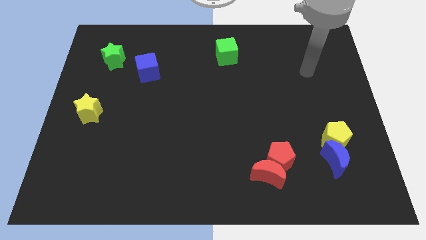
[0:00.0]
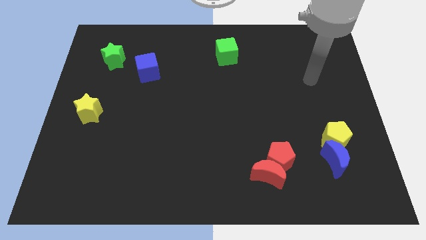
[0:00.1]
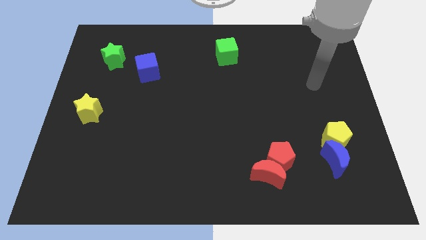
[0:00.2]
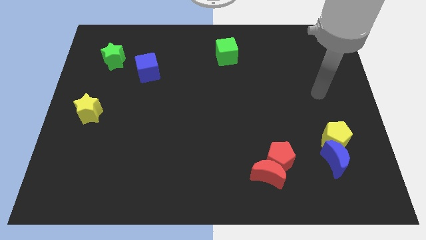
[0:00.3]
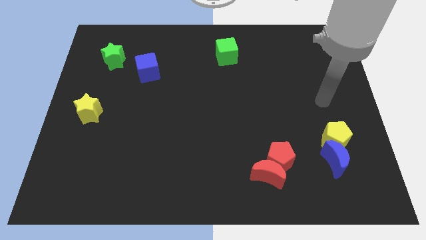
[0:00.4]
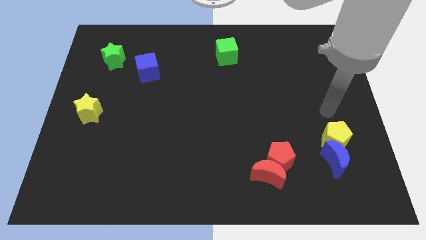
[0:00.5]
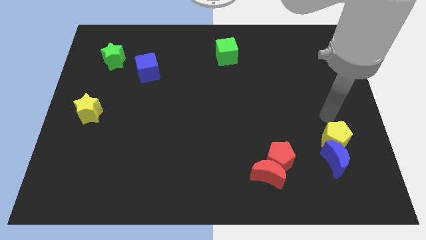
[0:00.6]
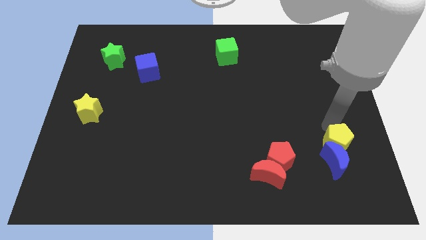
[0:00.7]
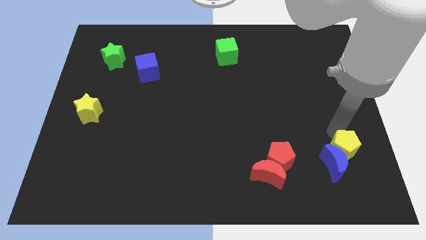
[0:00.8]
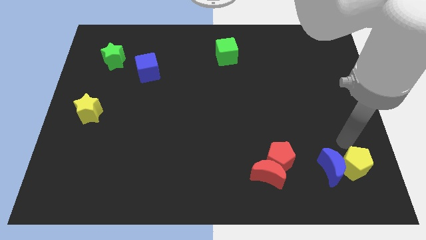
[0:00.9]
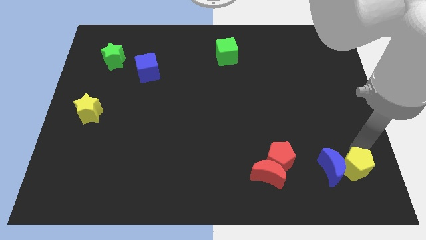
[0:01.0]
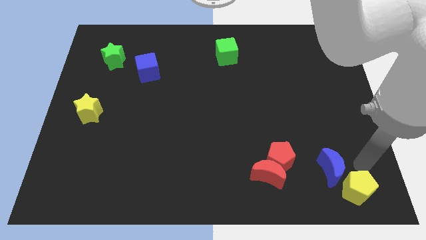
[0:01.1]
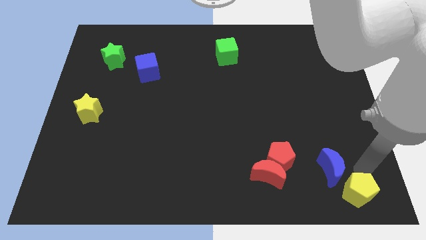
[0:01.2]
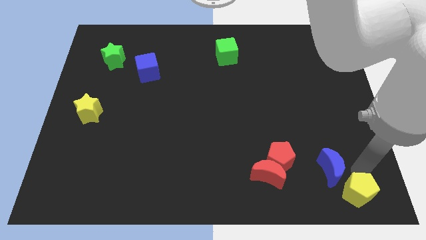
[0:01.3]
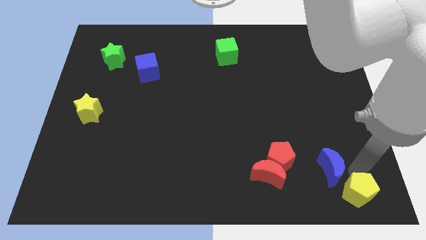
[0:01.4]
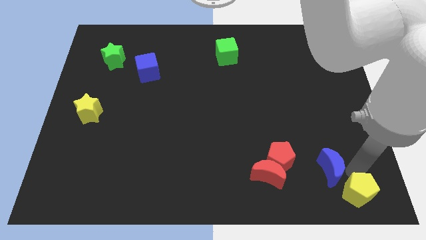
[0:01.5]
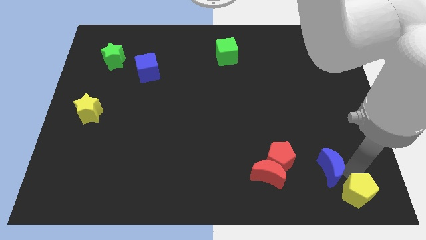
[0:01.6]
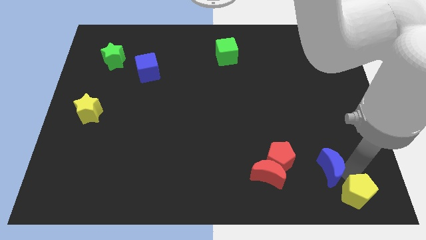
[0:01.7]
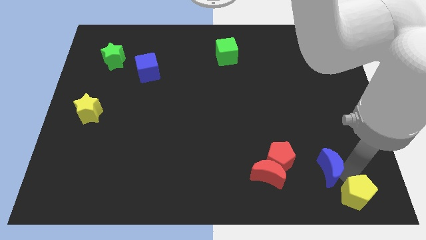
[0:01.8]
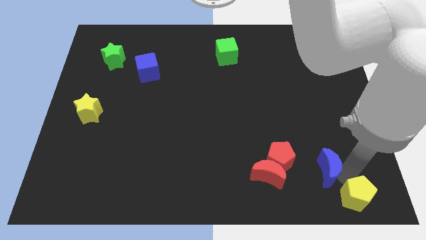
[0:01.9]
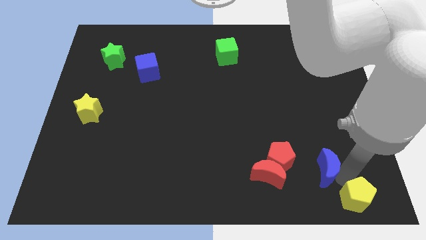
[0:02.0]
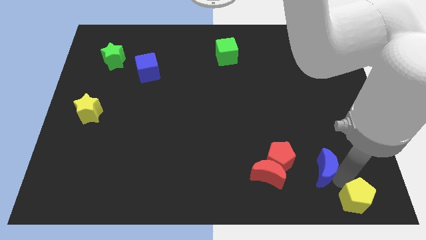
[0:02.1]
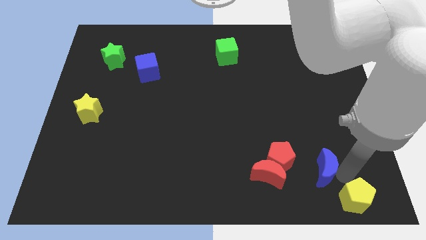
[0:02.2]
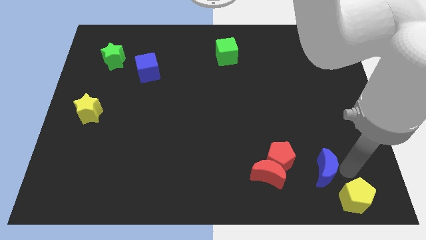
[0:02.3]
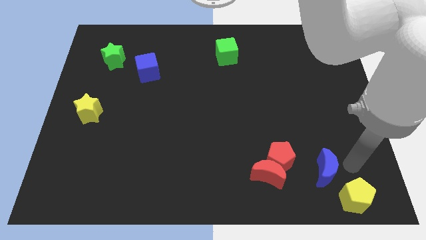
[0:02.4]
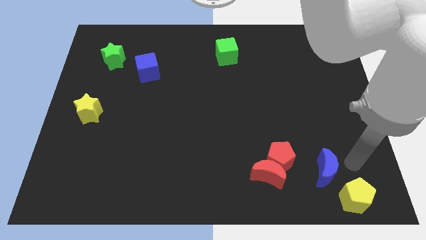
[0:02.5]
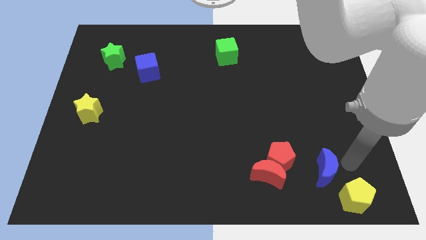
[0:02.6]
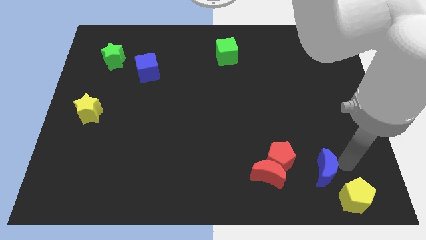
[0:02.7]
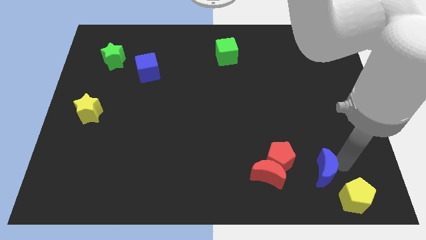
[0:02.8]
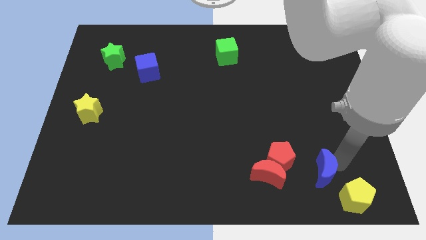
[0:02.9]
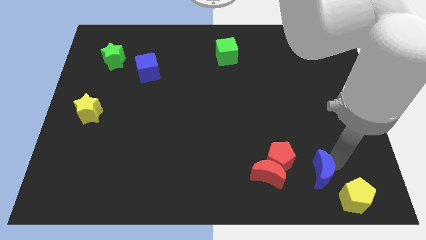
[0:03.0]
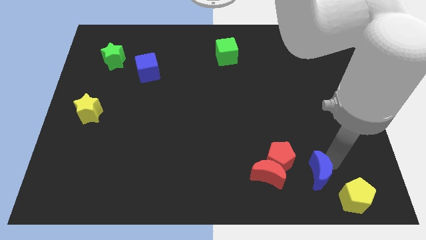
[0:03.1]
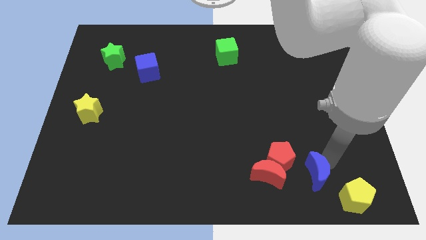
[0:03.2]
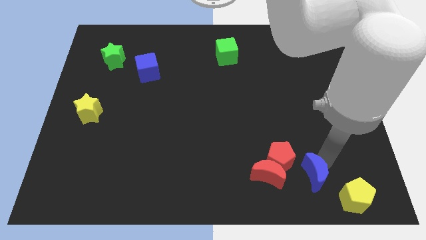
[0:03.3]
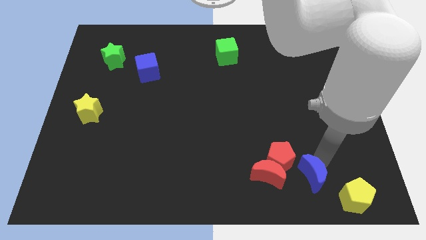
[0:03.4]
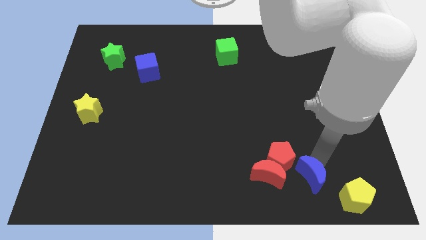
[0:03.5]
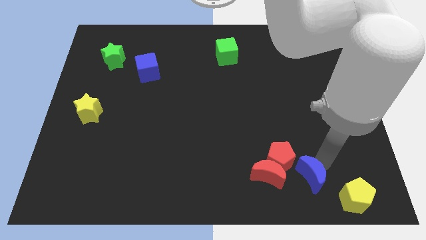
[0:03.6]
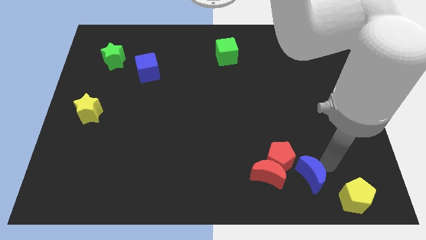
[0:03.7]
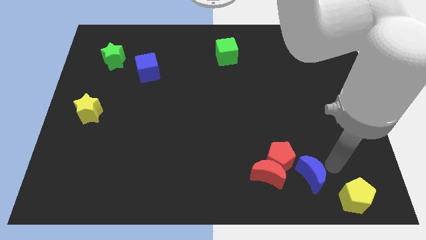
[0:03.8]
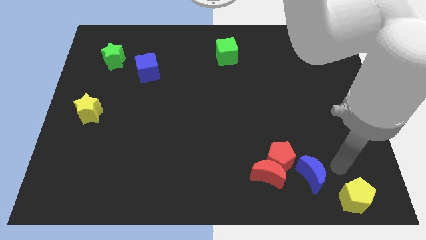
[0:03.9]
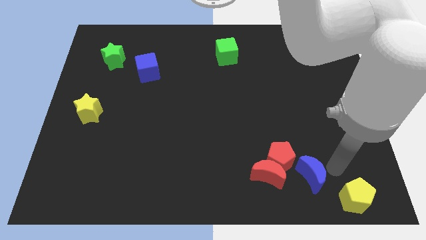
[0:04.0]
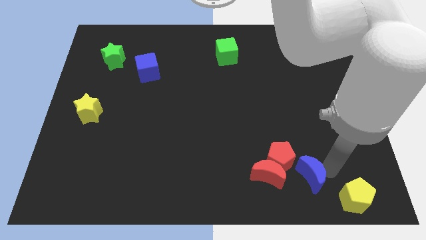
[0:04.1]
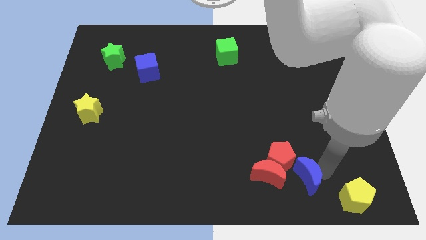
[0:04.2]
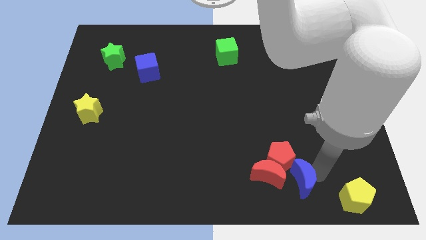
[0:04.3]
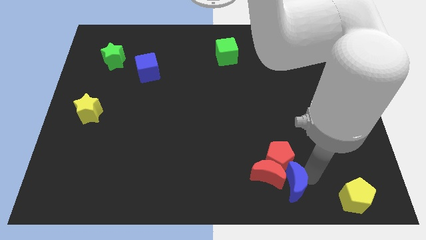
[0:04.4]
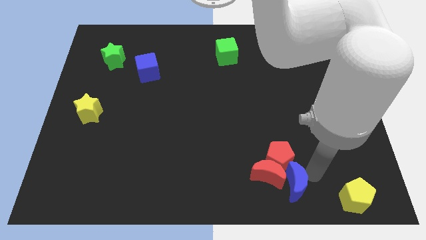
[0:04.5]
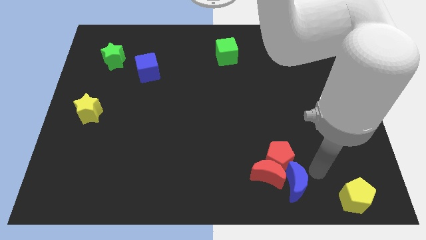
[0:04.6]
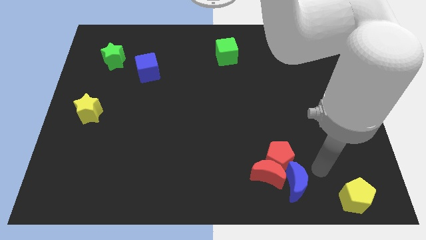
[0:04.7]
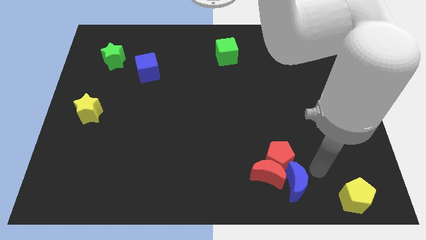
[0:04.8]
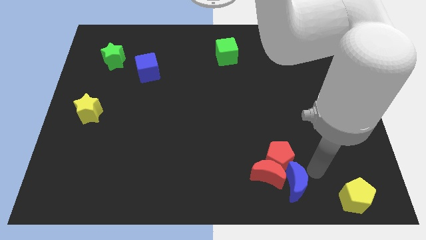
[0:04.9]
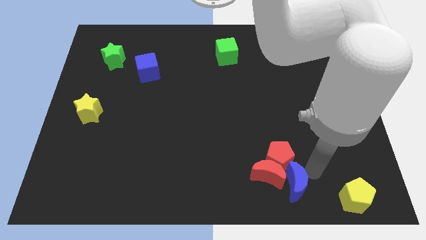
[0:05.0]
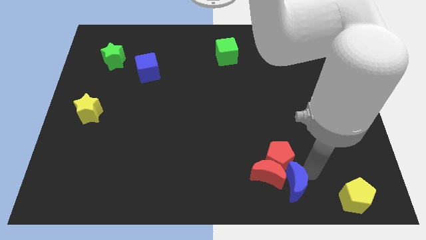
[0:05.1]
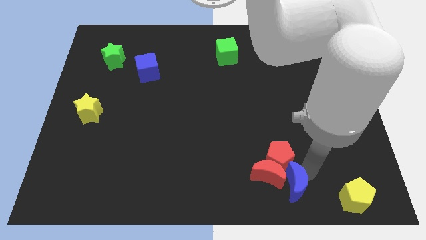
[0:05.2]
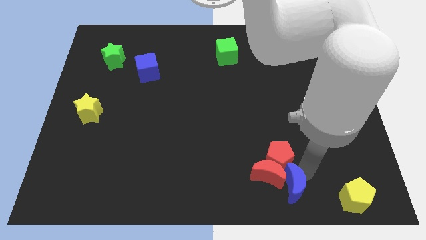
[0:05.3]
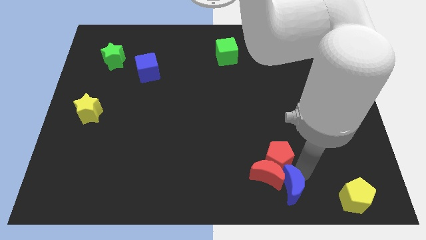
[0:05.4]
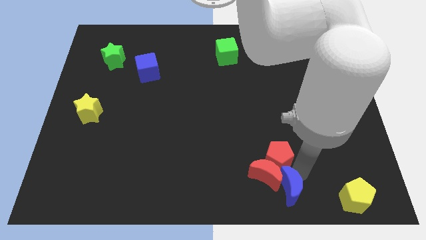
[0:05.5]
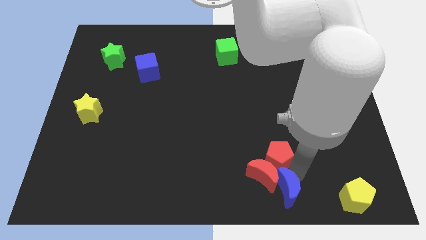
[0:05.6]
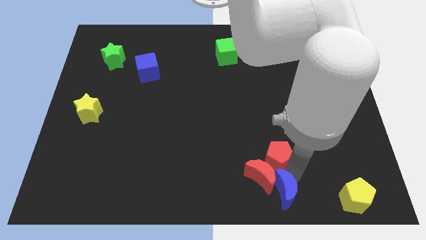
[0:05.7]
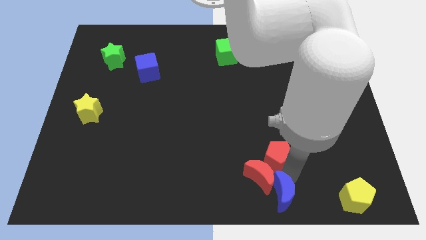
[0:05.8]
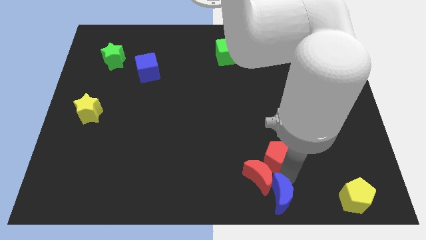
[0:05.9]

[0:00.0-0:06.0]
move the blue moon to the bottom side
